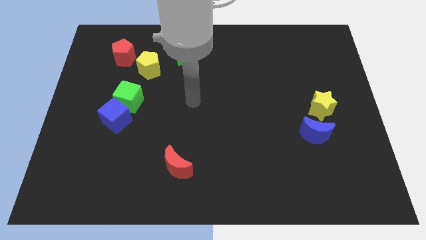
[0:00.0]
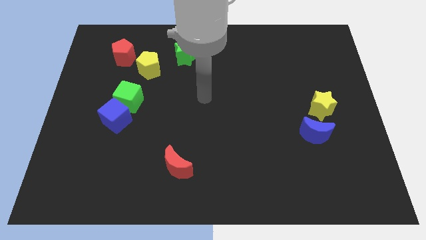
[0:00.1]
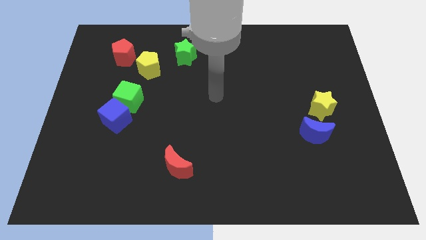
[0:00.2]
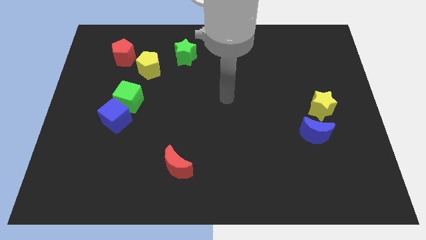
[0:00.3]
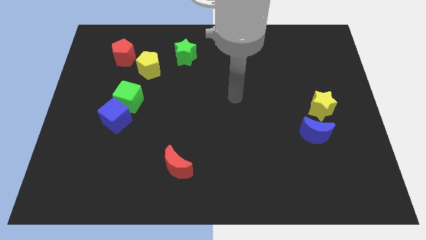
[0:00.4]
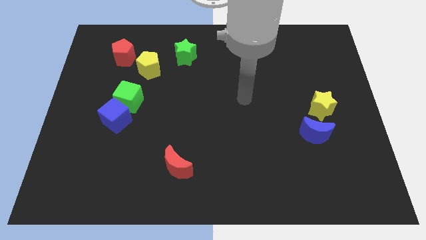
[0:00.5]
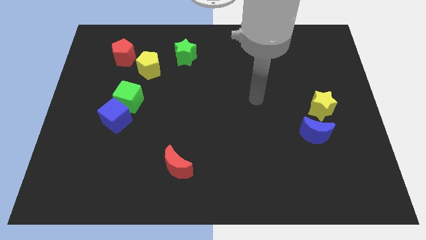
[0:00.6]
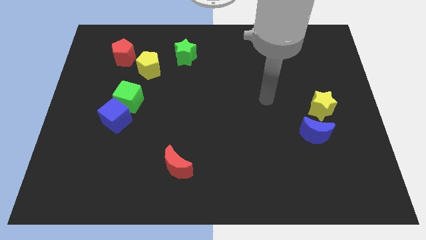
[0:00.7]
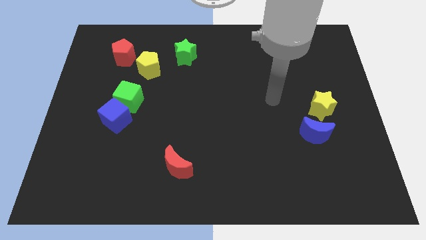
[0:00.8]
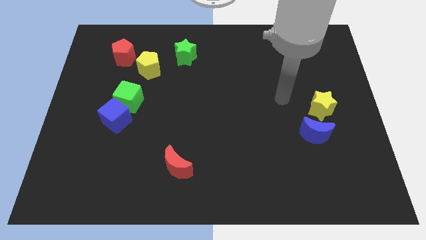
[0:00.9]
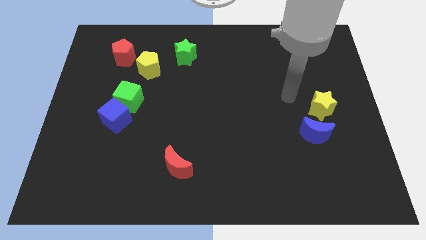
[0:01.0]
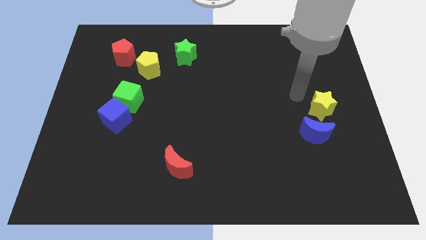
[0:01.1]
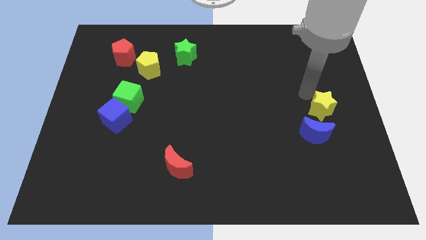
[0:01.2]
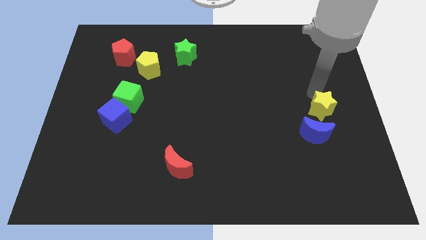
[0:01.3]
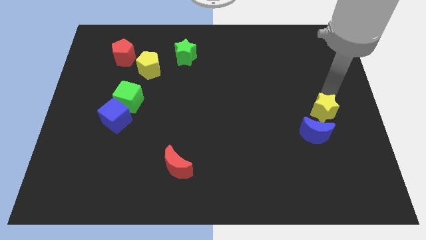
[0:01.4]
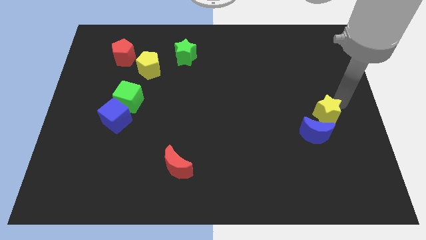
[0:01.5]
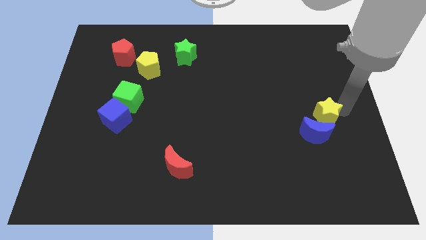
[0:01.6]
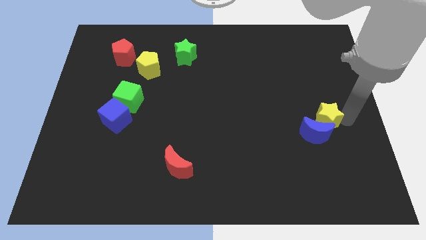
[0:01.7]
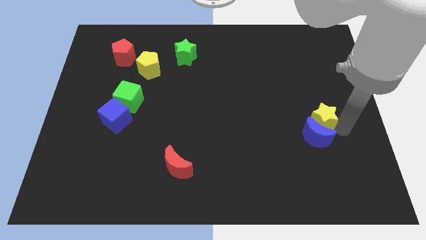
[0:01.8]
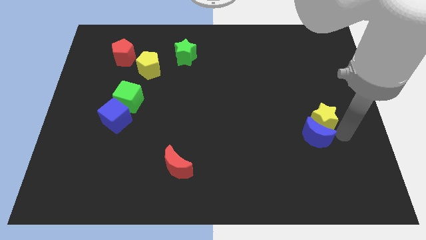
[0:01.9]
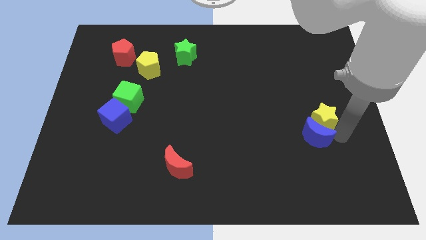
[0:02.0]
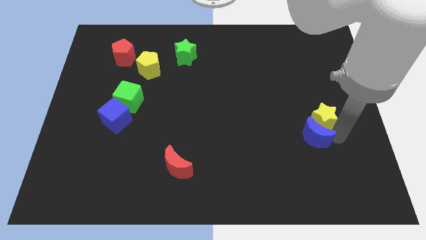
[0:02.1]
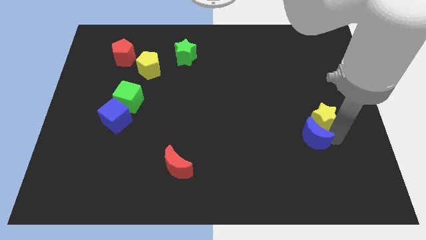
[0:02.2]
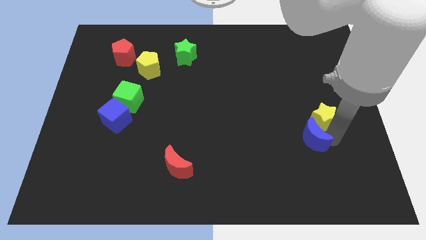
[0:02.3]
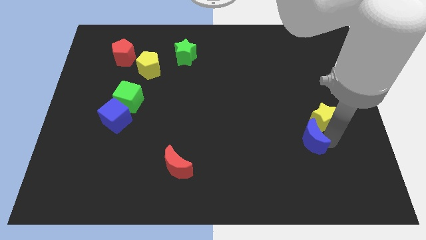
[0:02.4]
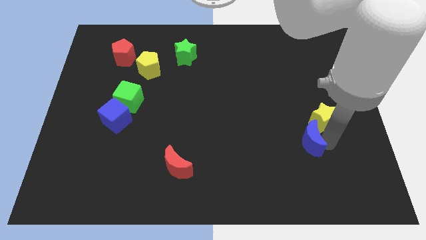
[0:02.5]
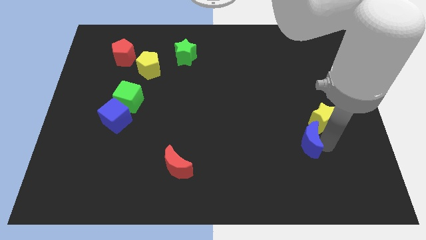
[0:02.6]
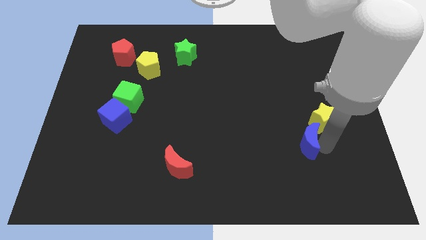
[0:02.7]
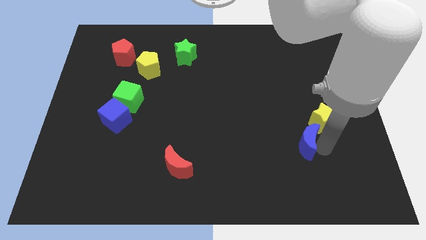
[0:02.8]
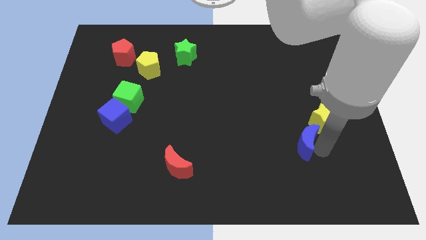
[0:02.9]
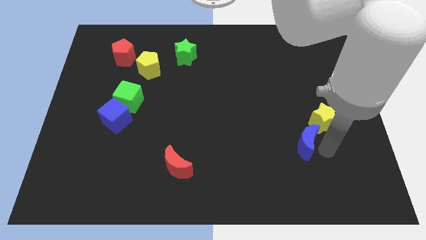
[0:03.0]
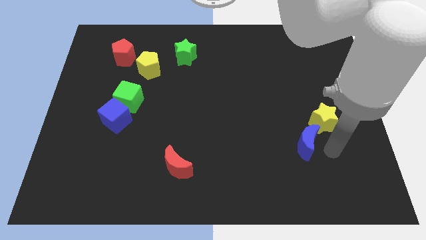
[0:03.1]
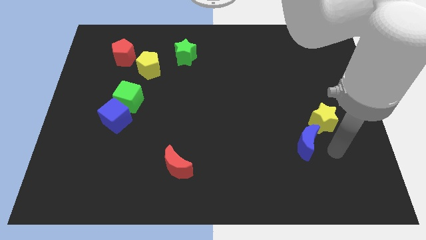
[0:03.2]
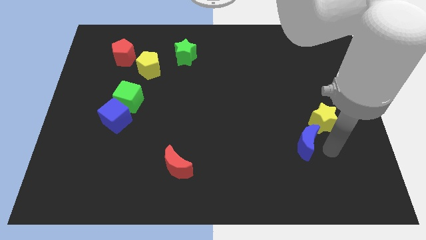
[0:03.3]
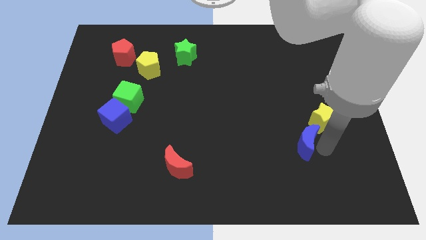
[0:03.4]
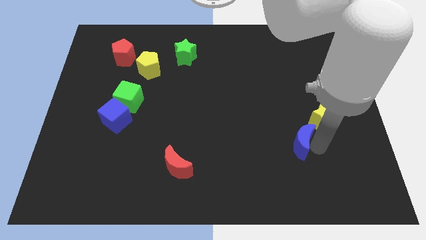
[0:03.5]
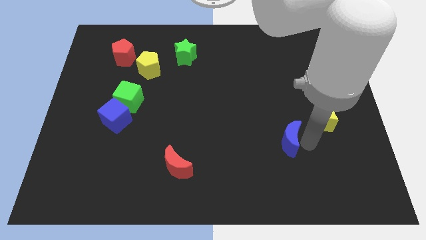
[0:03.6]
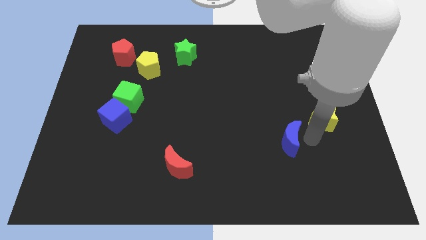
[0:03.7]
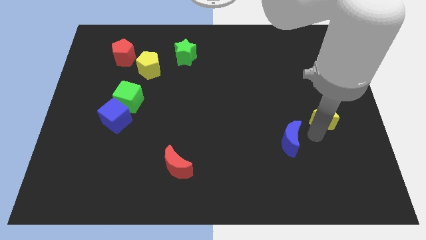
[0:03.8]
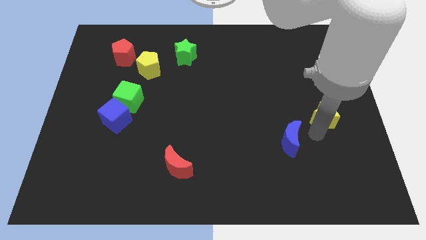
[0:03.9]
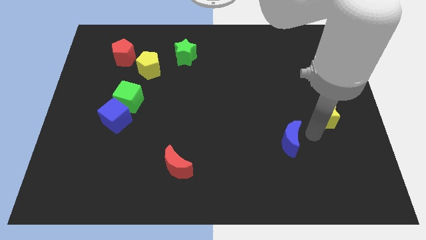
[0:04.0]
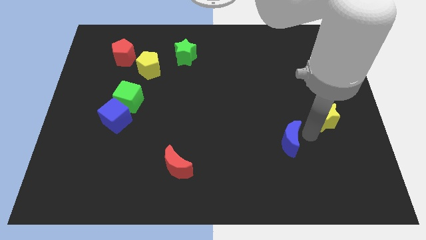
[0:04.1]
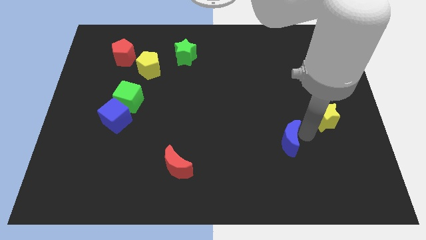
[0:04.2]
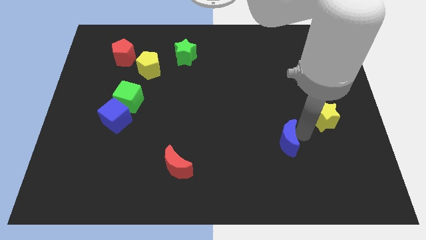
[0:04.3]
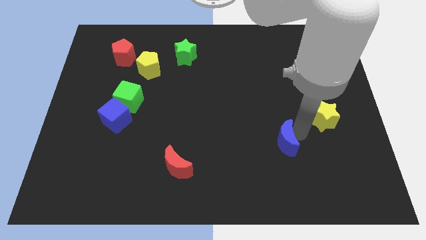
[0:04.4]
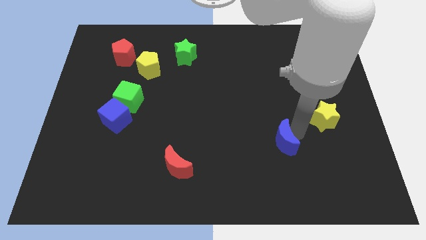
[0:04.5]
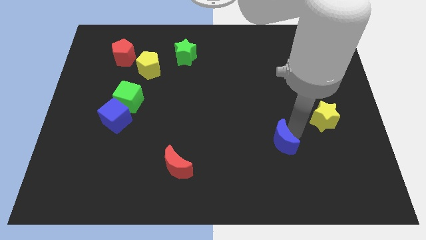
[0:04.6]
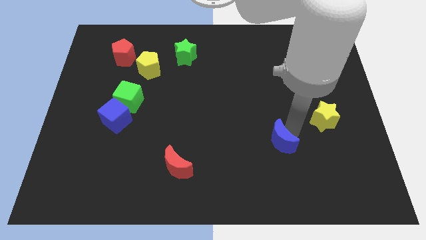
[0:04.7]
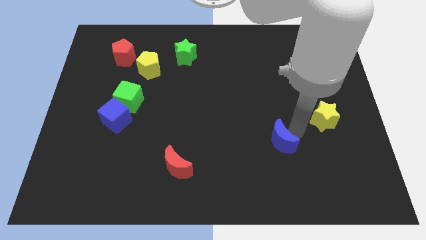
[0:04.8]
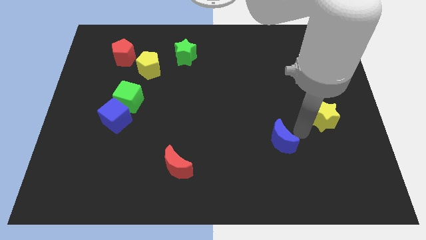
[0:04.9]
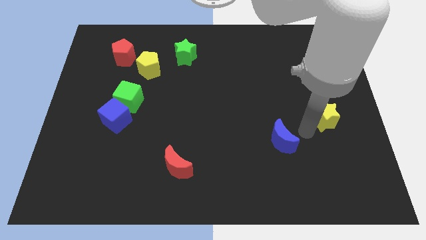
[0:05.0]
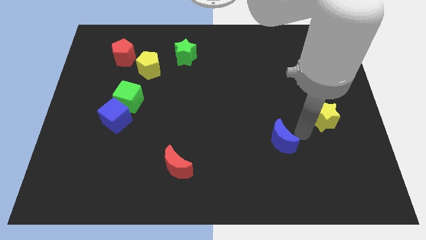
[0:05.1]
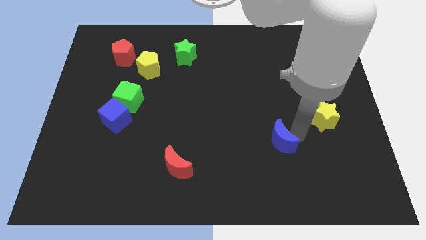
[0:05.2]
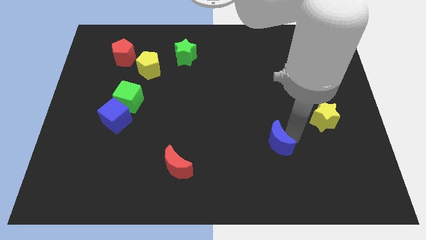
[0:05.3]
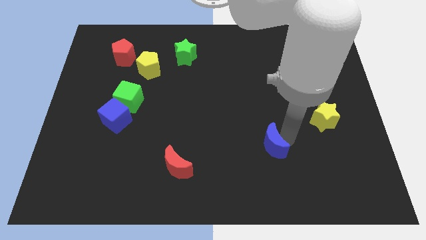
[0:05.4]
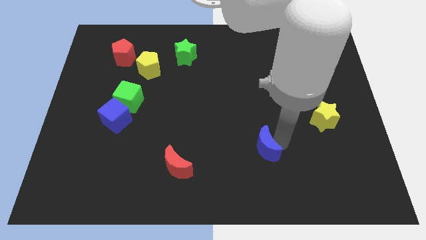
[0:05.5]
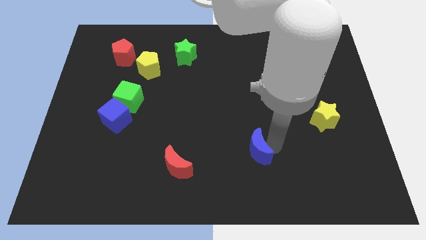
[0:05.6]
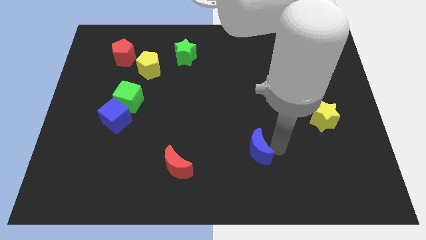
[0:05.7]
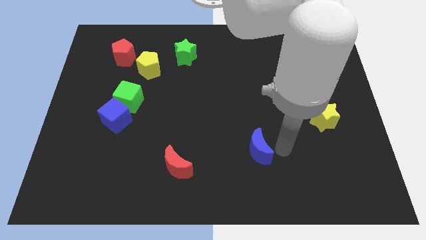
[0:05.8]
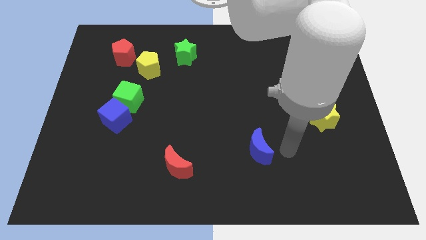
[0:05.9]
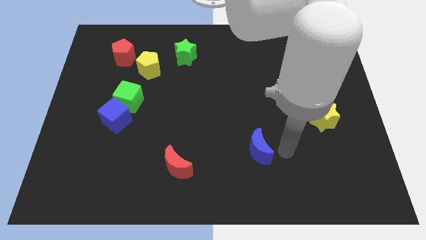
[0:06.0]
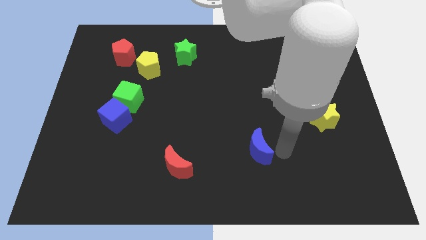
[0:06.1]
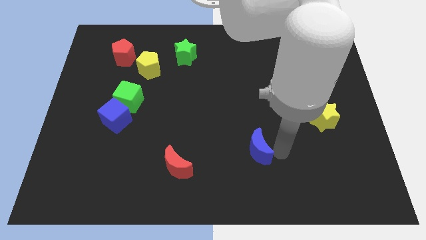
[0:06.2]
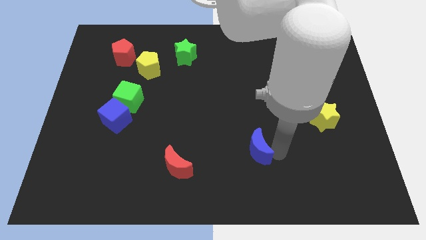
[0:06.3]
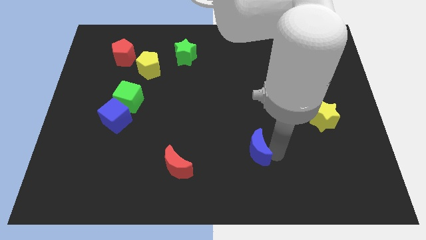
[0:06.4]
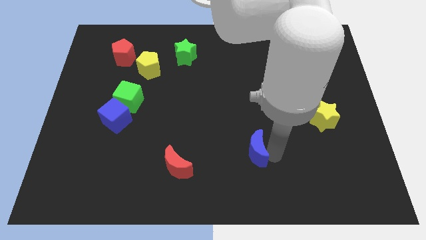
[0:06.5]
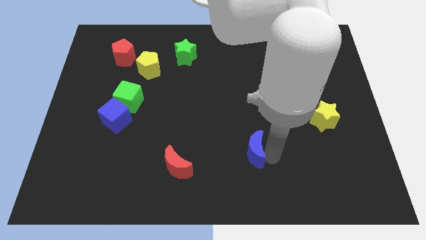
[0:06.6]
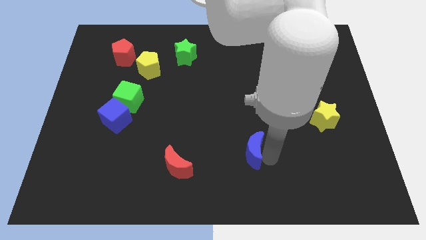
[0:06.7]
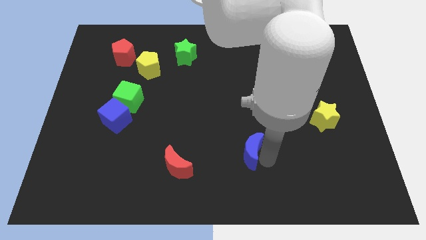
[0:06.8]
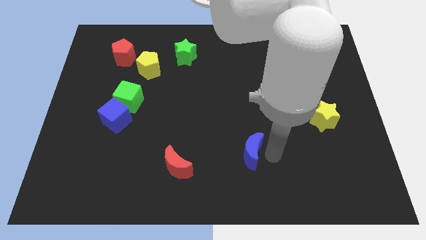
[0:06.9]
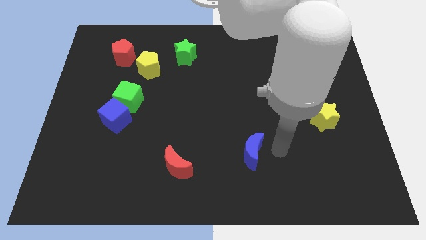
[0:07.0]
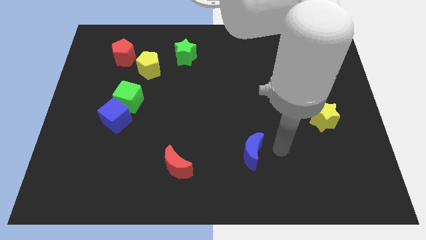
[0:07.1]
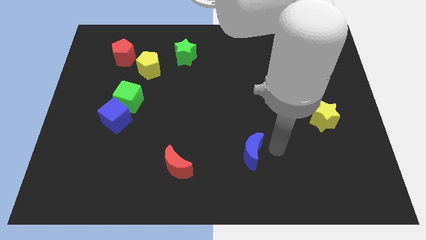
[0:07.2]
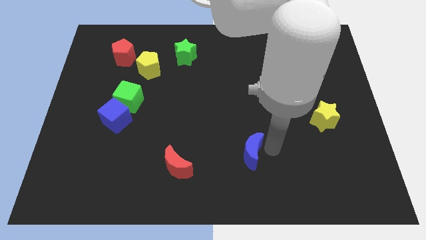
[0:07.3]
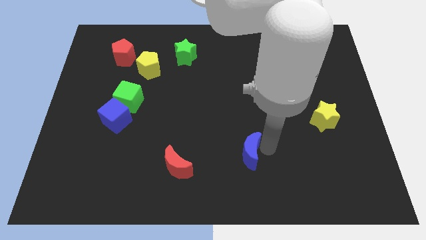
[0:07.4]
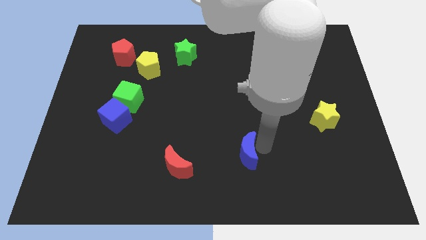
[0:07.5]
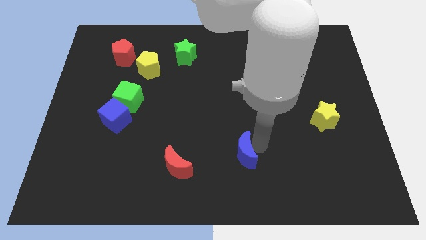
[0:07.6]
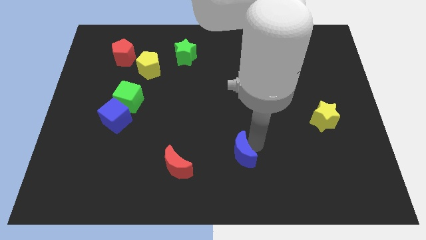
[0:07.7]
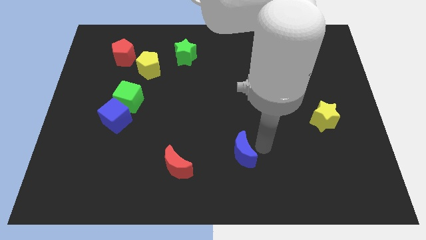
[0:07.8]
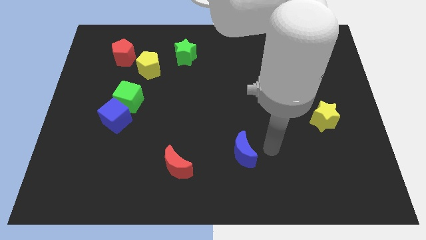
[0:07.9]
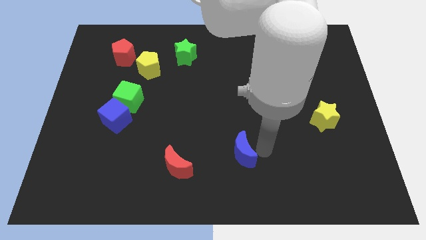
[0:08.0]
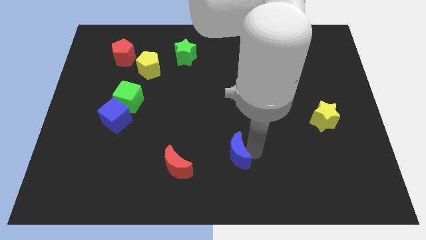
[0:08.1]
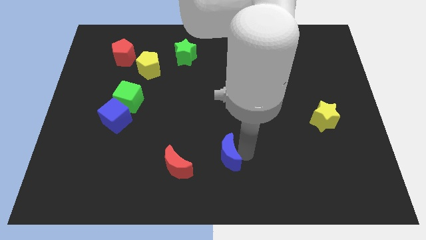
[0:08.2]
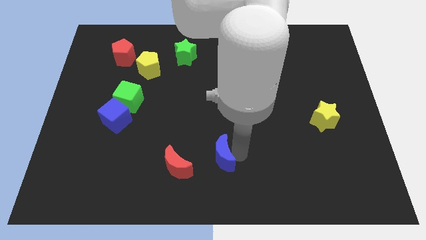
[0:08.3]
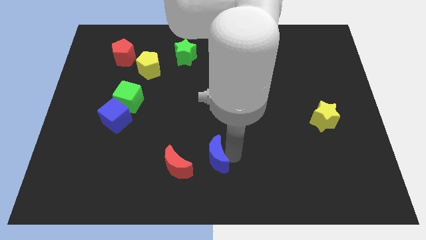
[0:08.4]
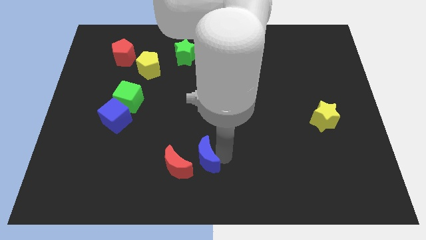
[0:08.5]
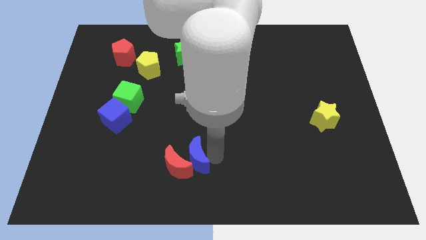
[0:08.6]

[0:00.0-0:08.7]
slide the blue moon next to the red moon
